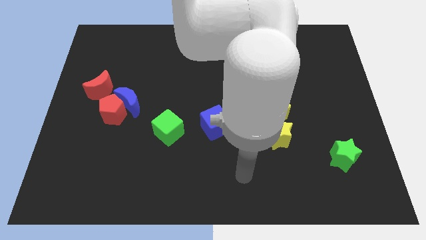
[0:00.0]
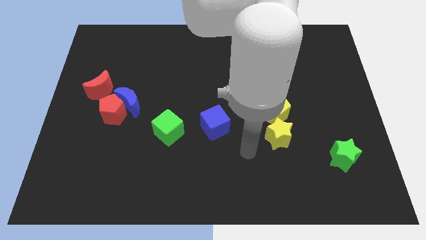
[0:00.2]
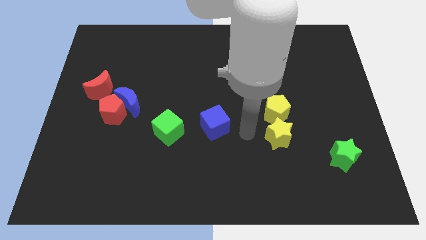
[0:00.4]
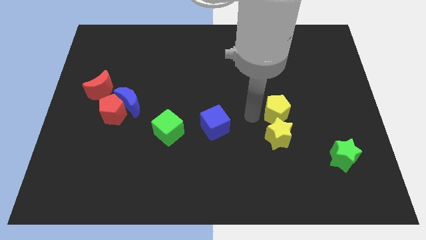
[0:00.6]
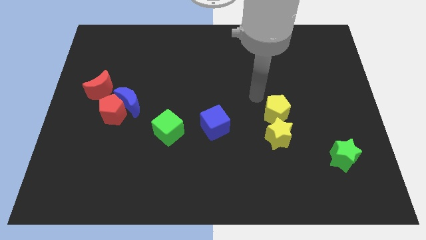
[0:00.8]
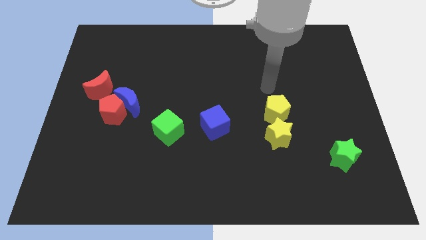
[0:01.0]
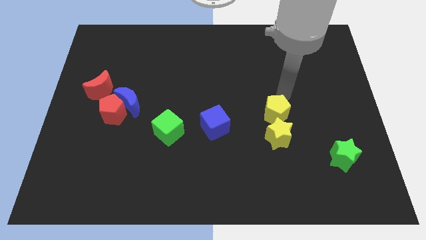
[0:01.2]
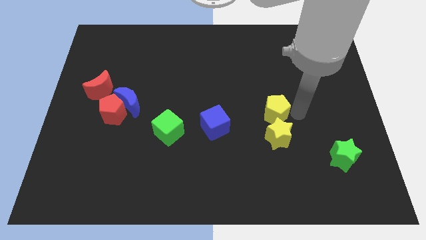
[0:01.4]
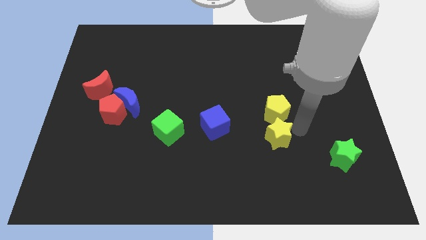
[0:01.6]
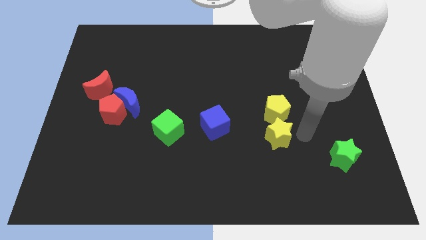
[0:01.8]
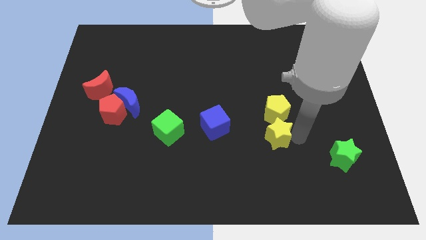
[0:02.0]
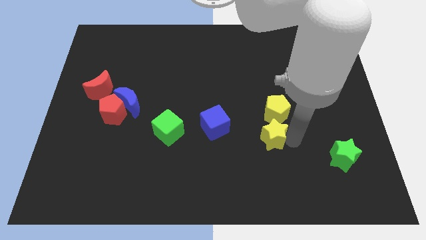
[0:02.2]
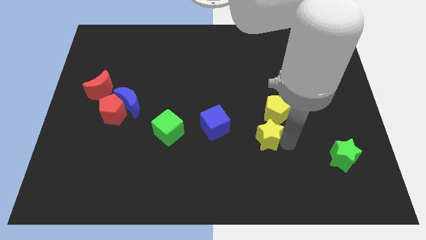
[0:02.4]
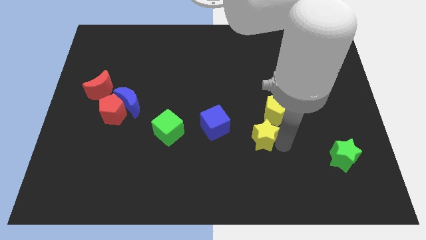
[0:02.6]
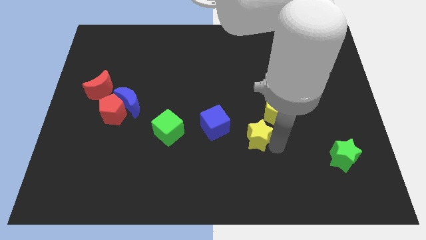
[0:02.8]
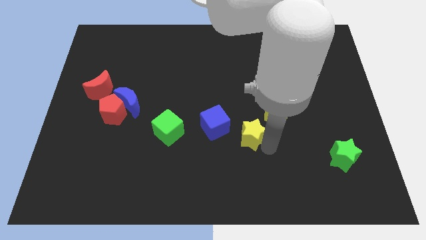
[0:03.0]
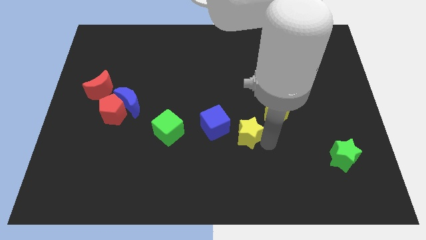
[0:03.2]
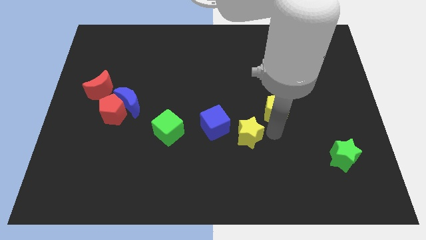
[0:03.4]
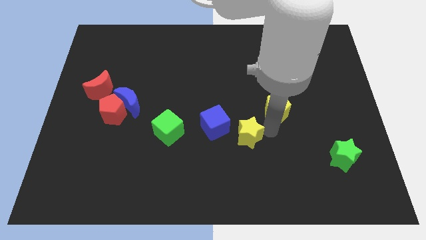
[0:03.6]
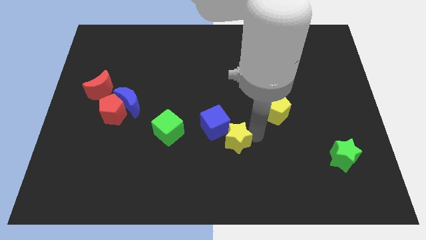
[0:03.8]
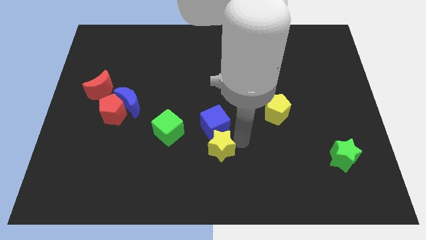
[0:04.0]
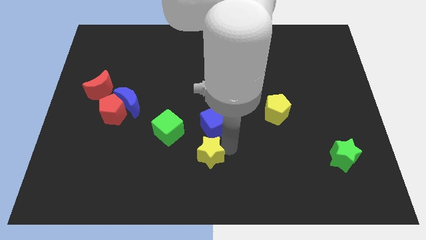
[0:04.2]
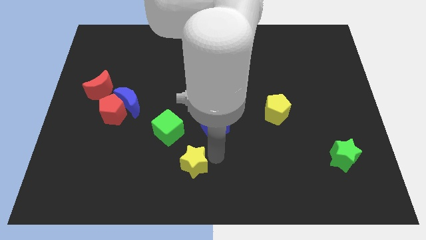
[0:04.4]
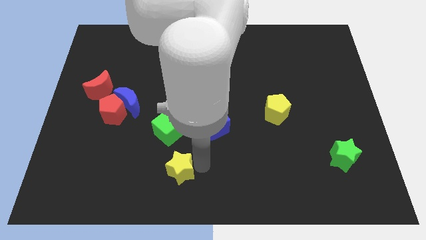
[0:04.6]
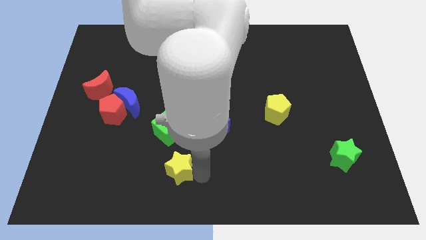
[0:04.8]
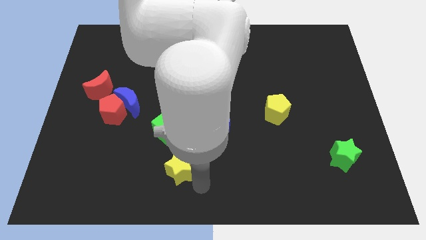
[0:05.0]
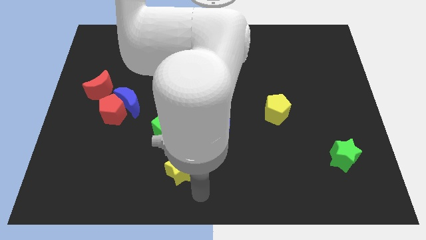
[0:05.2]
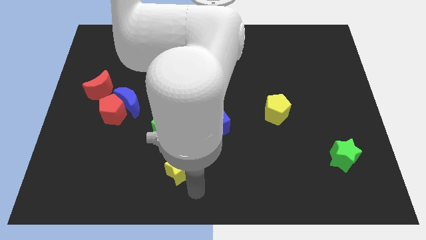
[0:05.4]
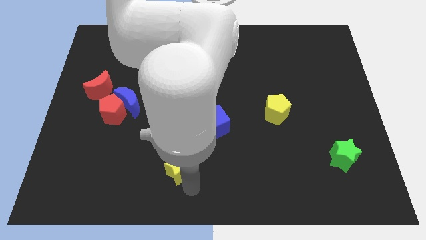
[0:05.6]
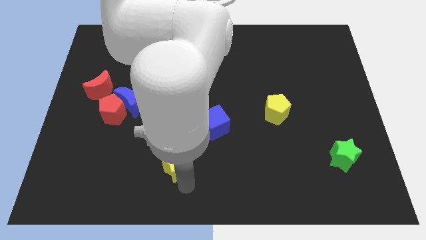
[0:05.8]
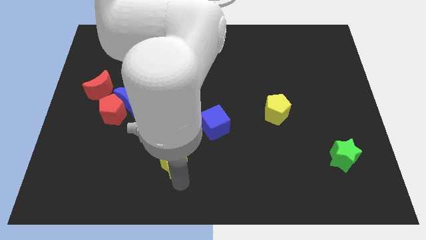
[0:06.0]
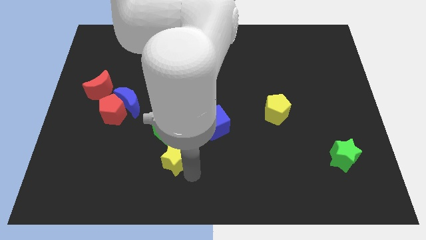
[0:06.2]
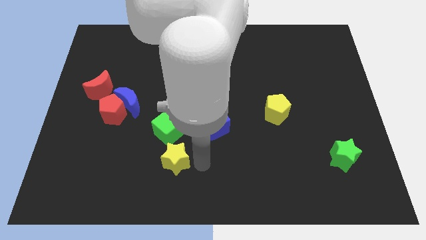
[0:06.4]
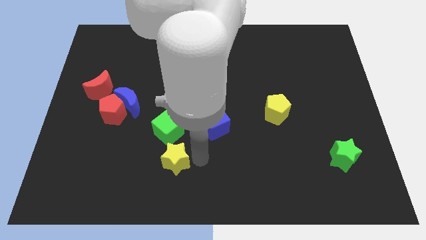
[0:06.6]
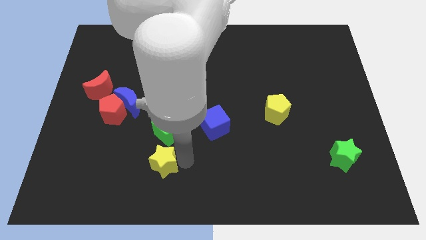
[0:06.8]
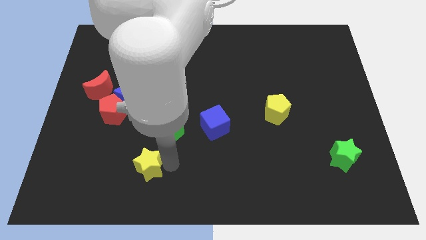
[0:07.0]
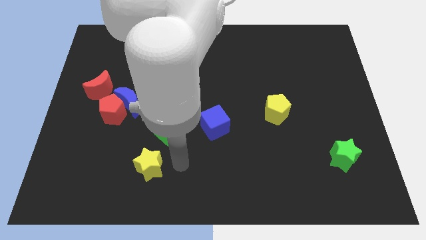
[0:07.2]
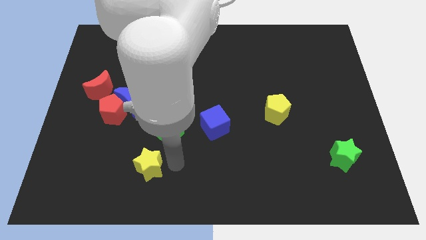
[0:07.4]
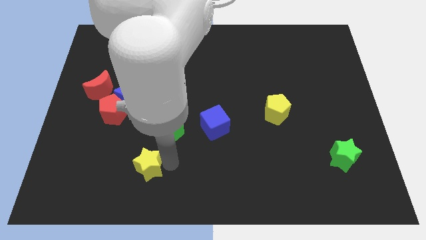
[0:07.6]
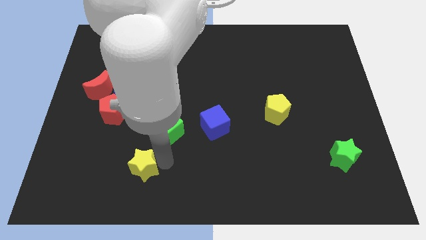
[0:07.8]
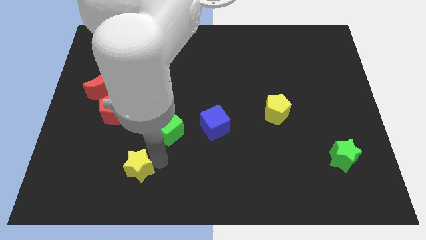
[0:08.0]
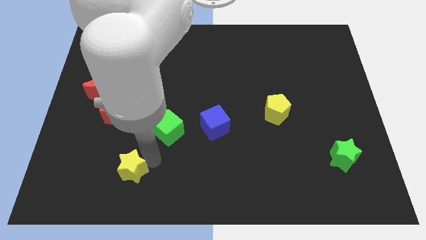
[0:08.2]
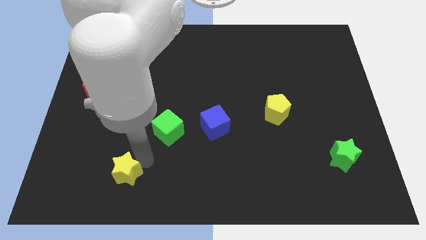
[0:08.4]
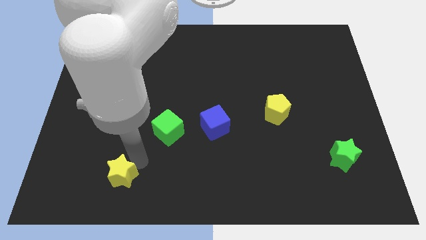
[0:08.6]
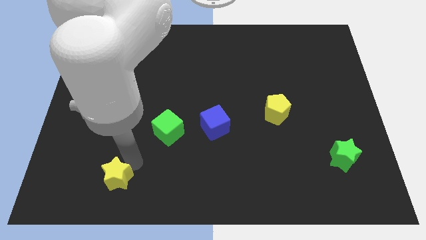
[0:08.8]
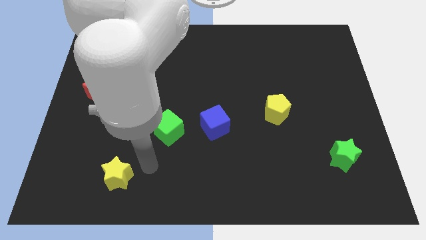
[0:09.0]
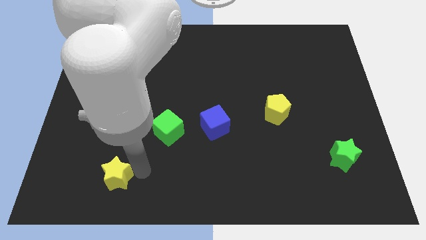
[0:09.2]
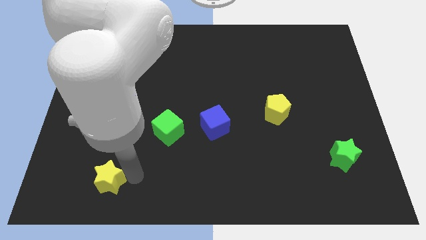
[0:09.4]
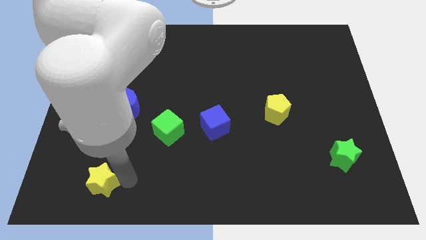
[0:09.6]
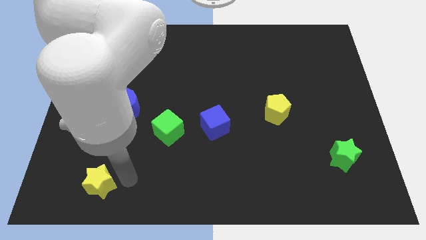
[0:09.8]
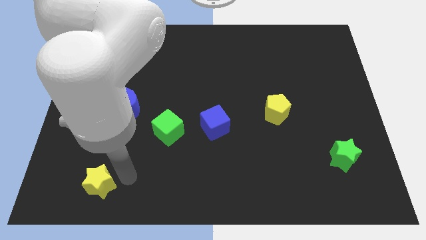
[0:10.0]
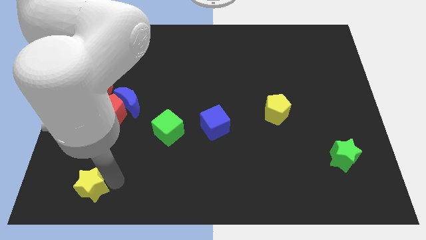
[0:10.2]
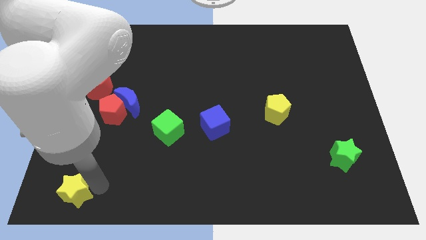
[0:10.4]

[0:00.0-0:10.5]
slide the yellow star to the bottom left of the board
